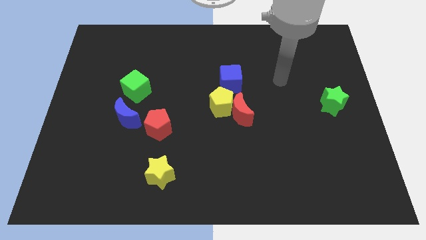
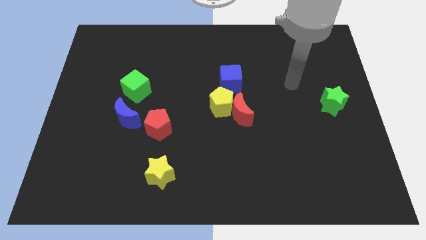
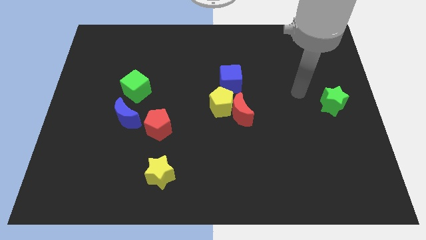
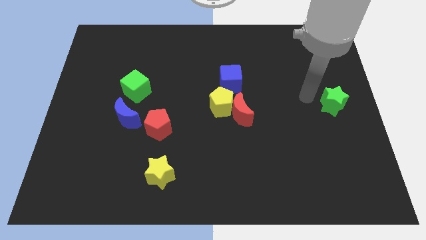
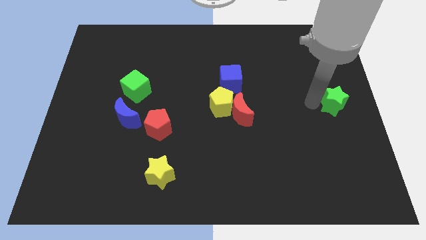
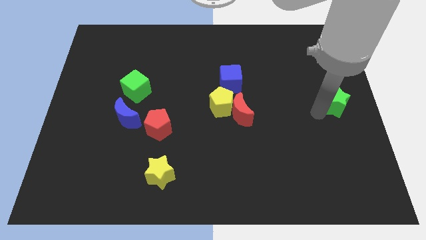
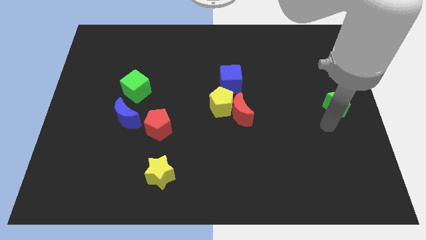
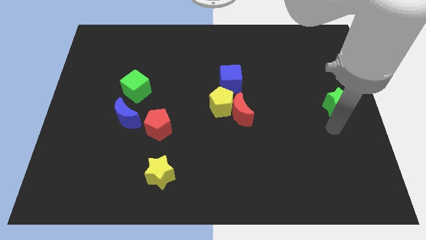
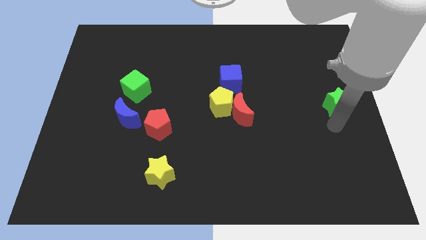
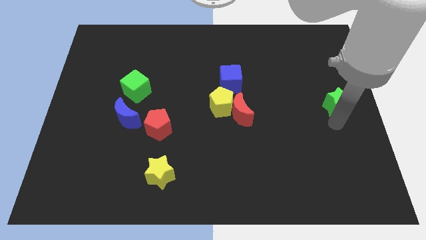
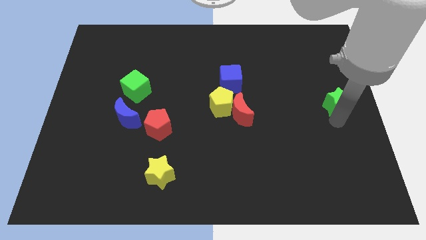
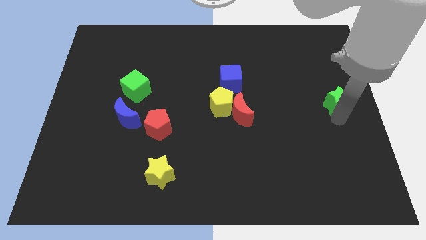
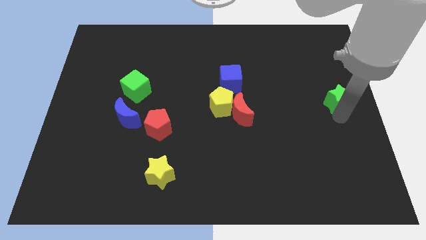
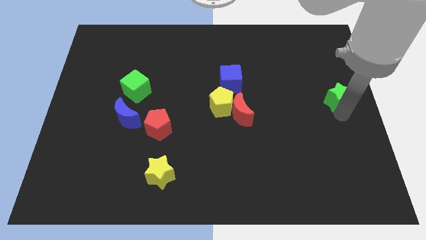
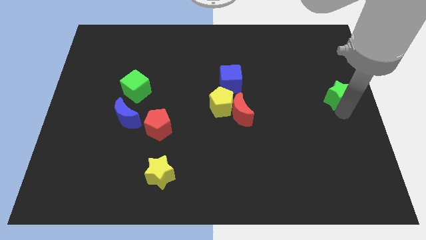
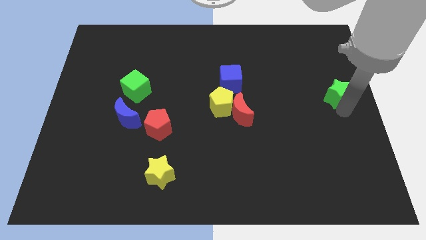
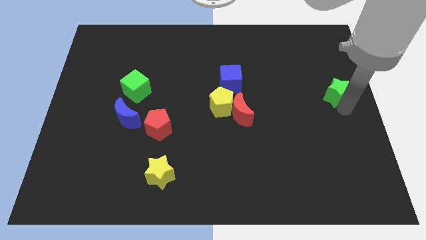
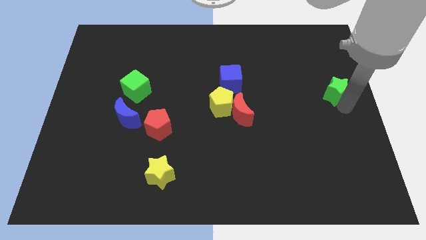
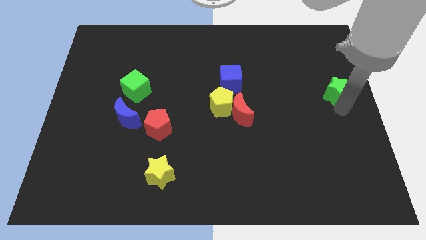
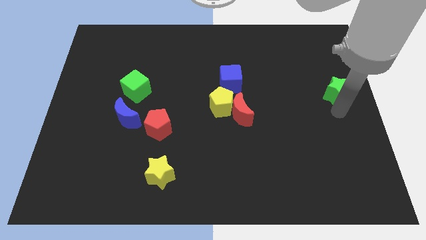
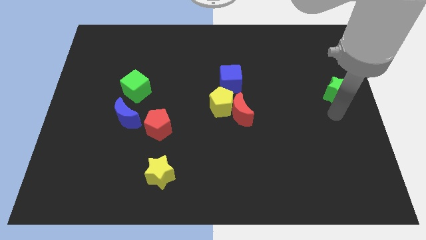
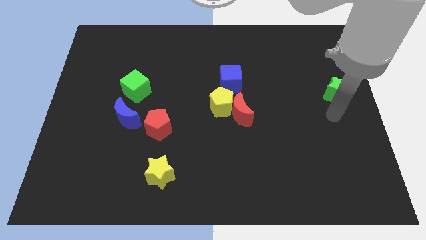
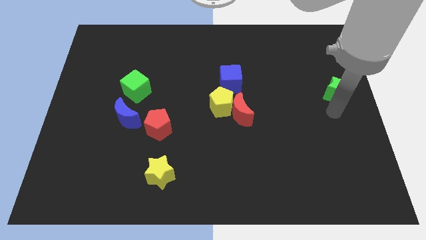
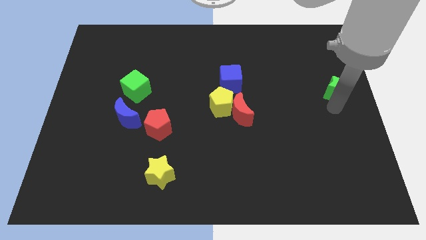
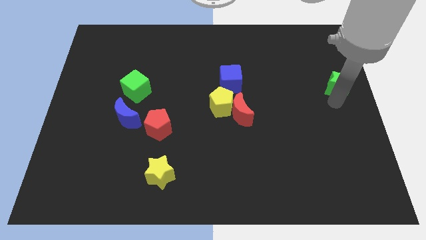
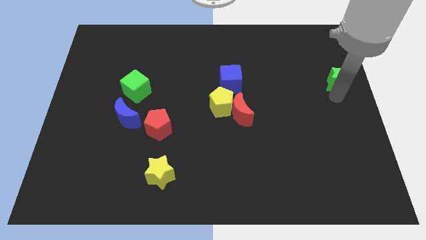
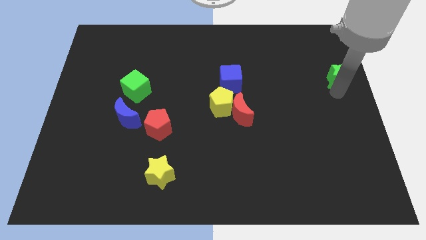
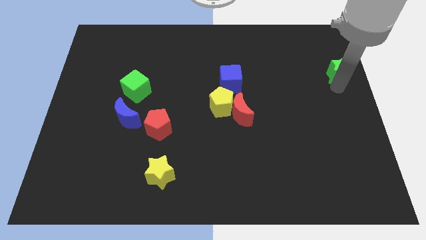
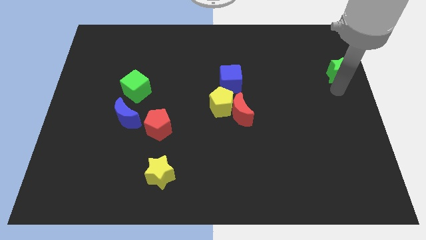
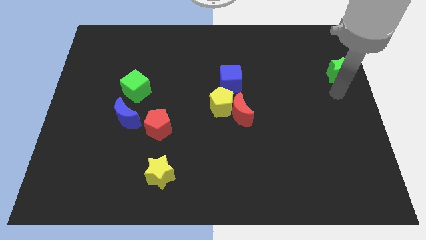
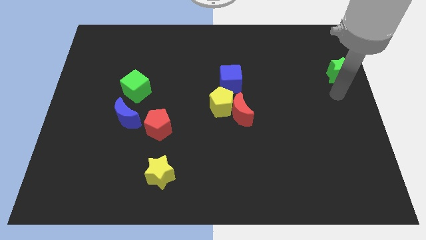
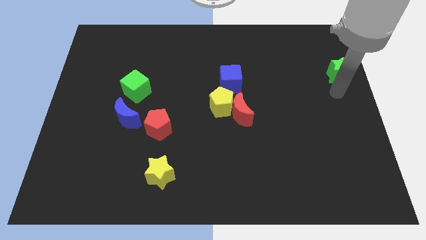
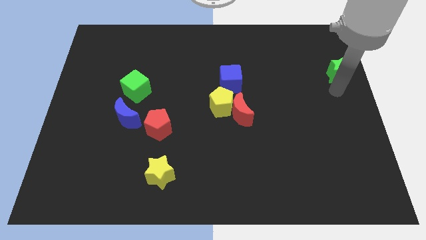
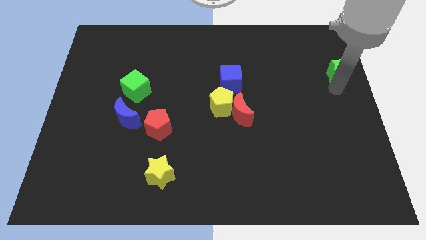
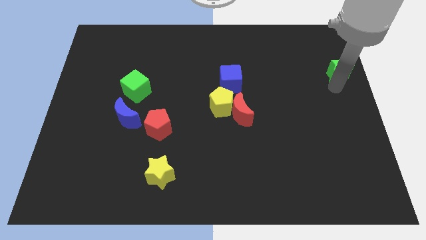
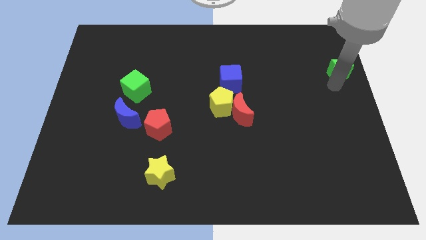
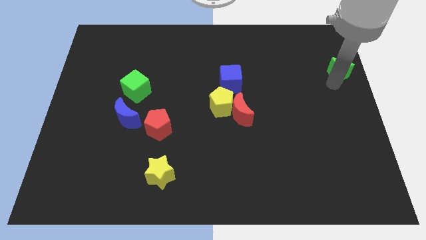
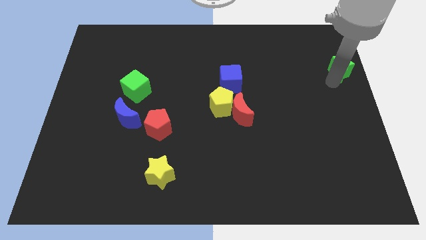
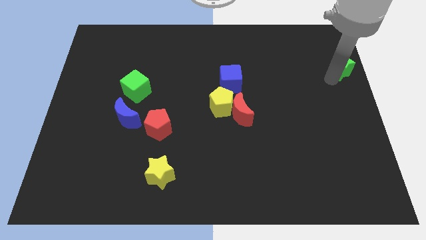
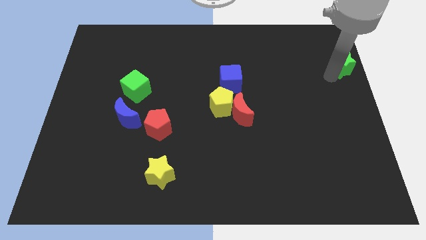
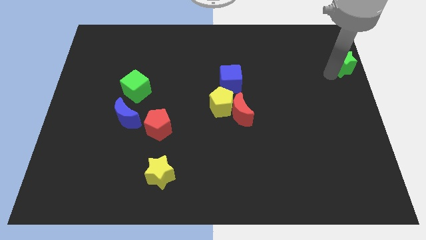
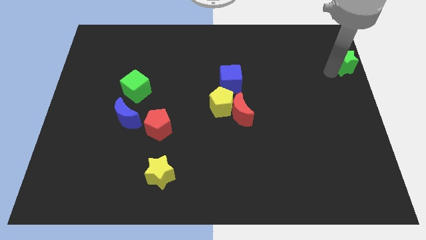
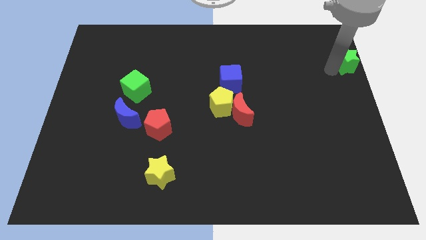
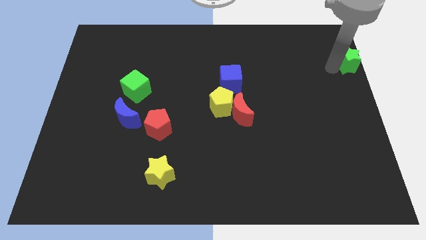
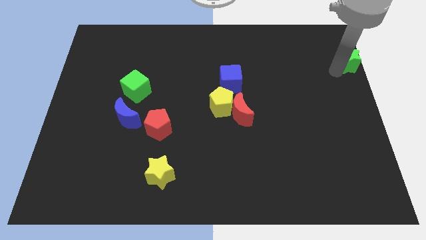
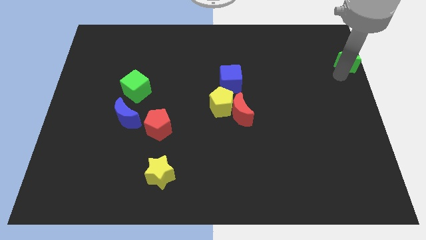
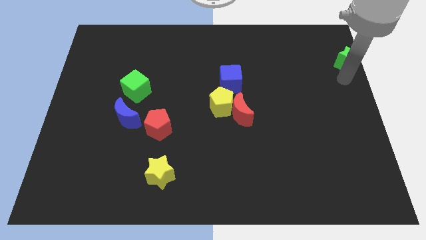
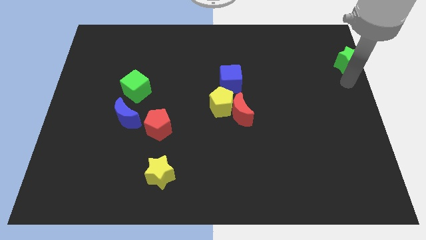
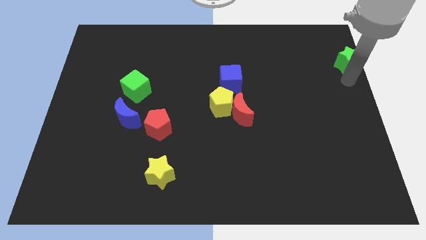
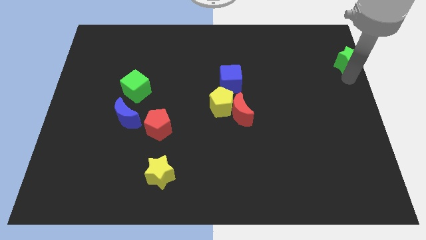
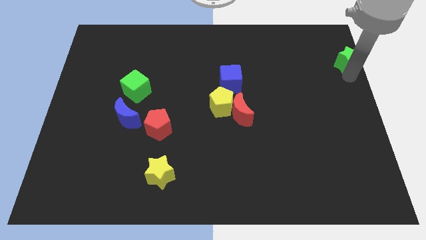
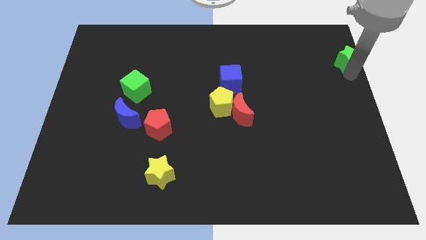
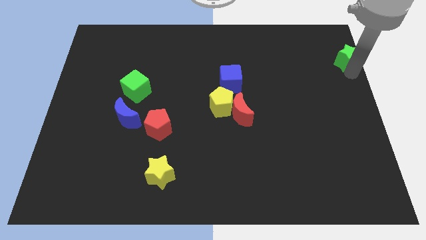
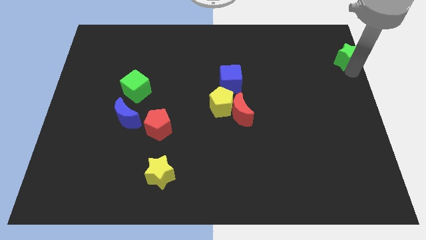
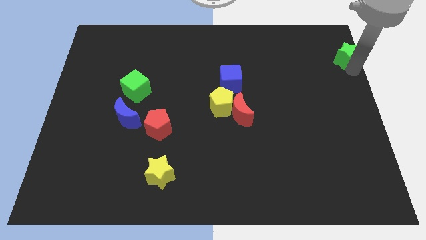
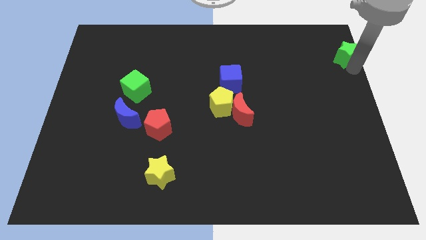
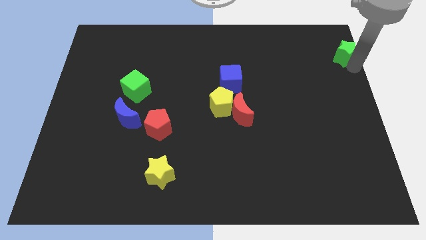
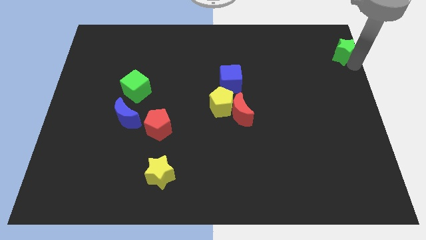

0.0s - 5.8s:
put the green star to the top right corner
